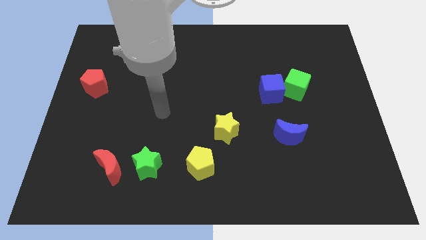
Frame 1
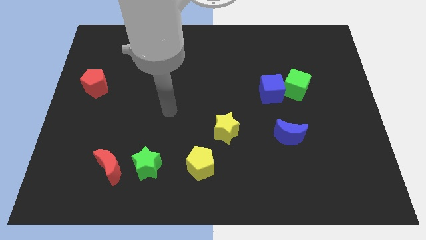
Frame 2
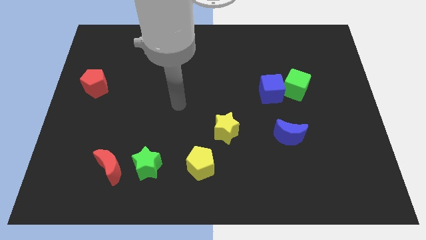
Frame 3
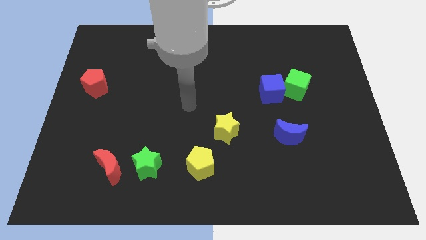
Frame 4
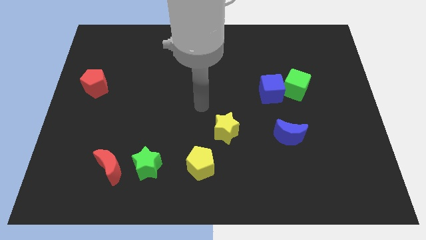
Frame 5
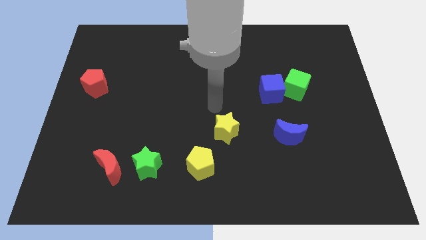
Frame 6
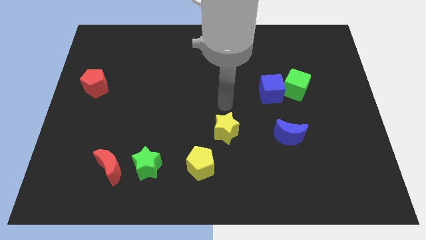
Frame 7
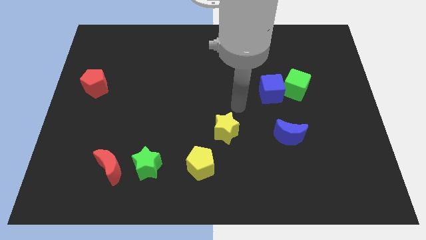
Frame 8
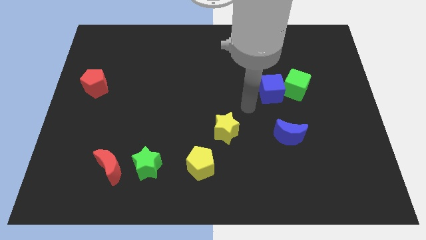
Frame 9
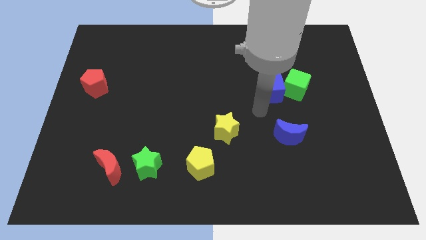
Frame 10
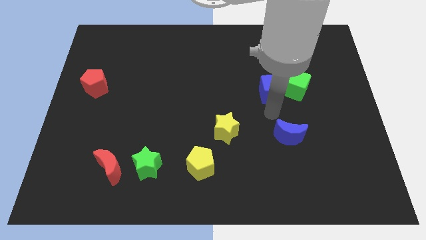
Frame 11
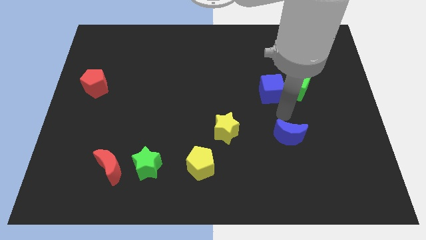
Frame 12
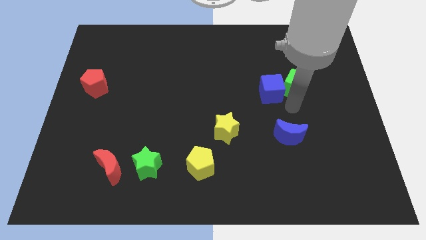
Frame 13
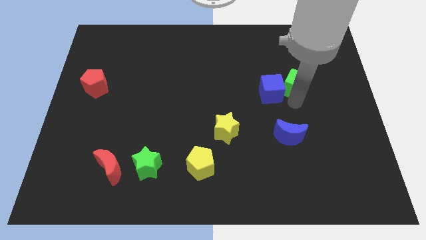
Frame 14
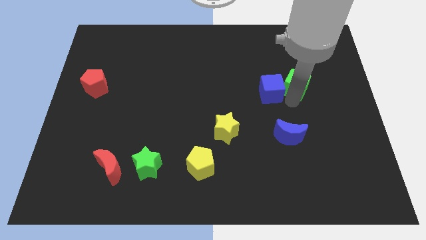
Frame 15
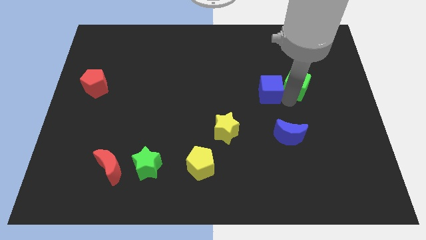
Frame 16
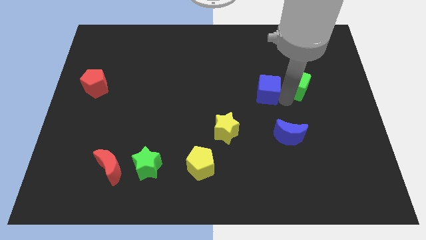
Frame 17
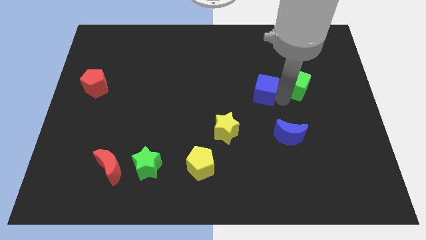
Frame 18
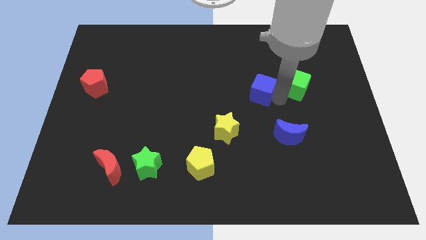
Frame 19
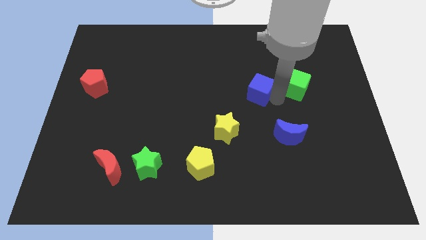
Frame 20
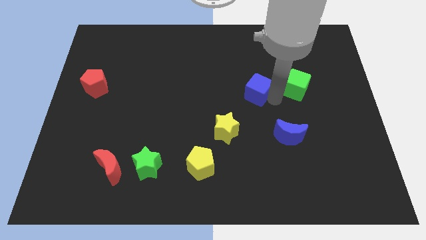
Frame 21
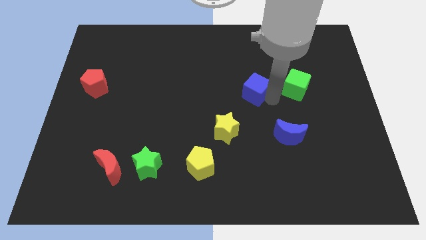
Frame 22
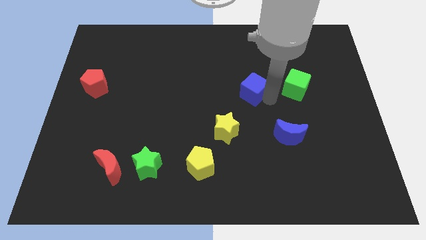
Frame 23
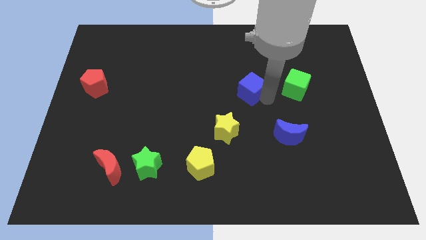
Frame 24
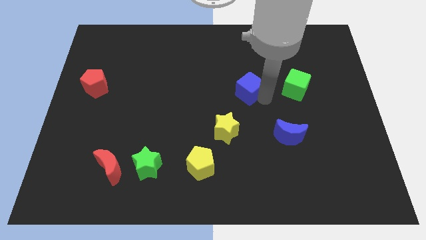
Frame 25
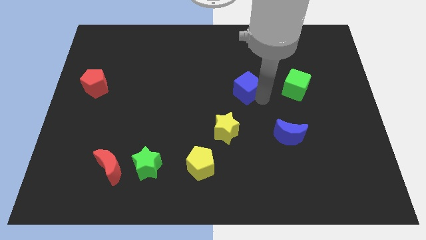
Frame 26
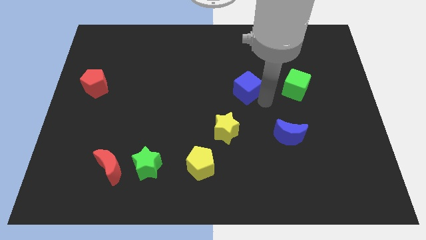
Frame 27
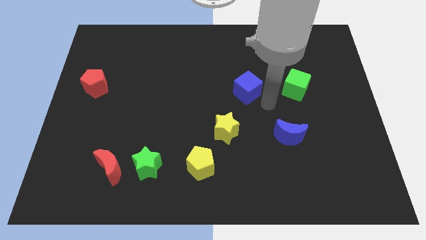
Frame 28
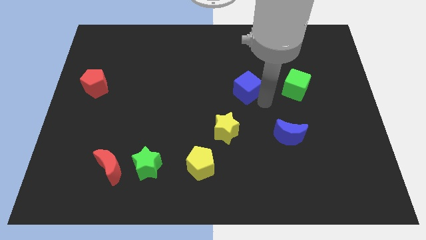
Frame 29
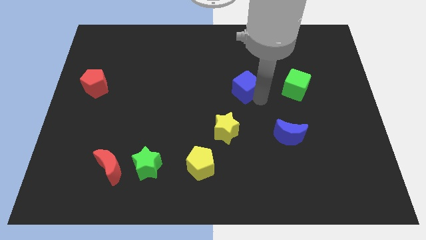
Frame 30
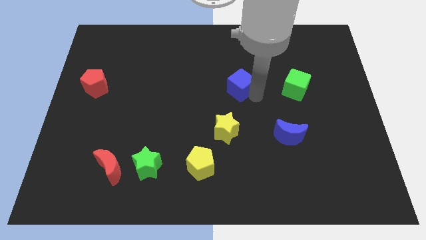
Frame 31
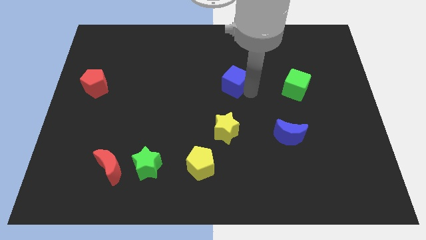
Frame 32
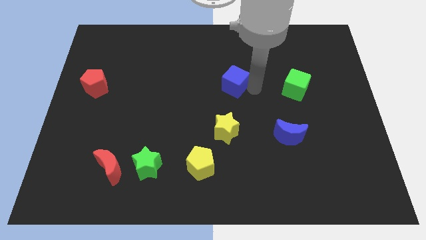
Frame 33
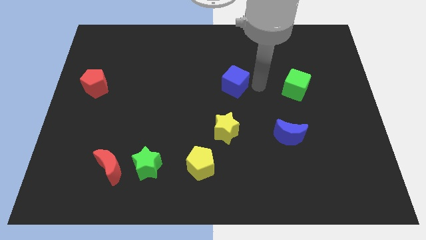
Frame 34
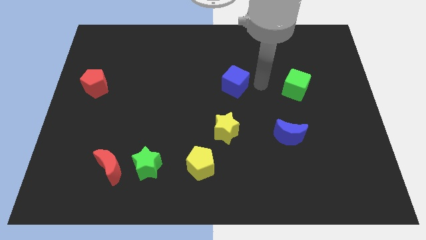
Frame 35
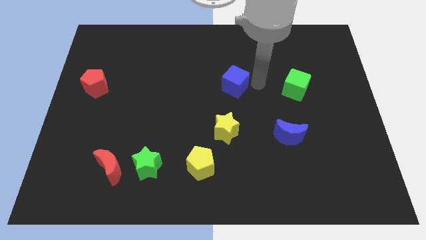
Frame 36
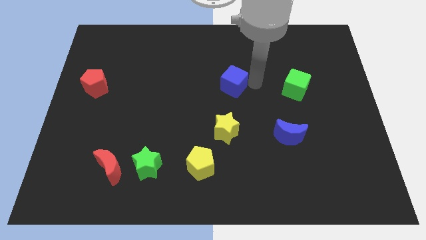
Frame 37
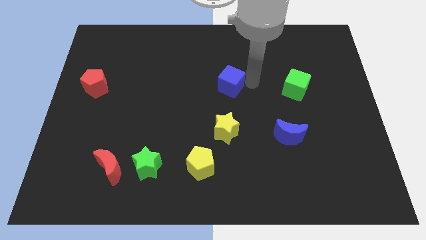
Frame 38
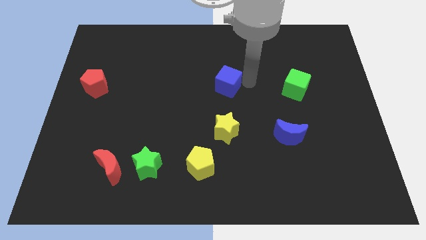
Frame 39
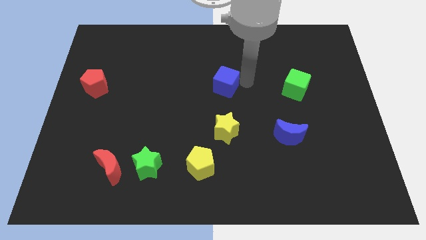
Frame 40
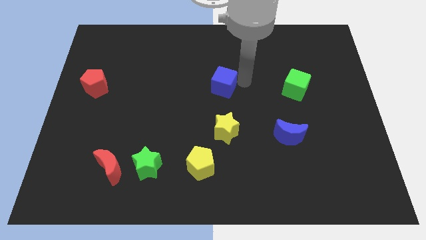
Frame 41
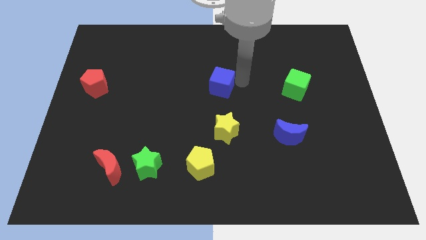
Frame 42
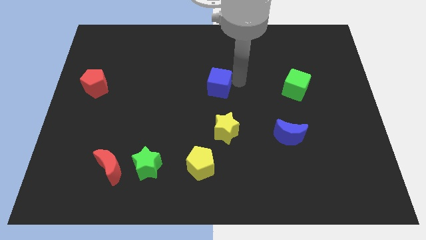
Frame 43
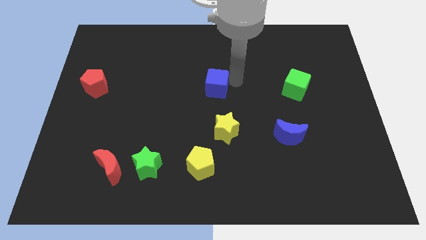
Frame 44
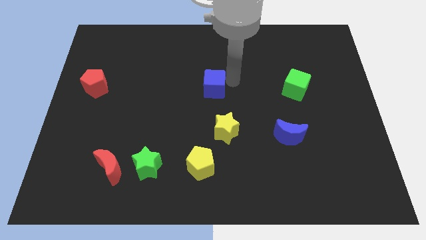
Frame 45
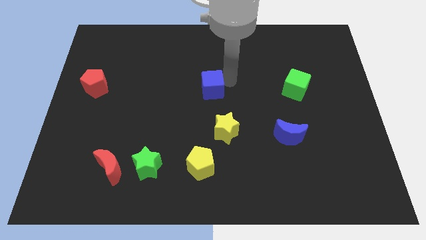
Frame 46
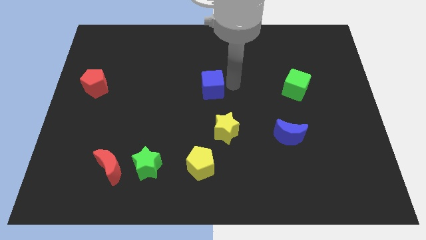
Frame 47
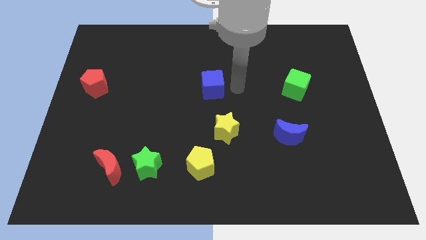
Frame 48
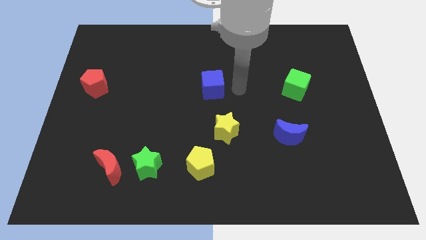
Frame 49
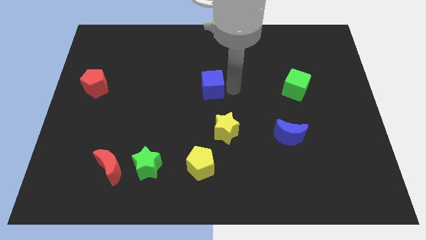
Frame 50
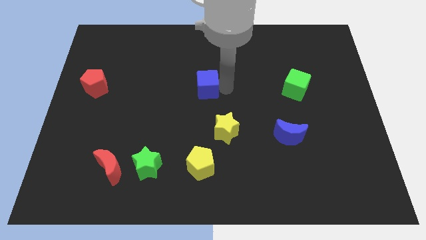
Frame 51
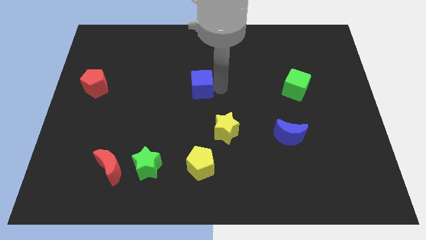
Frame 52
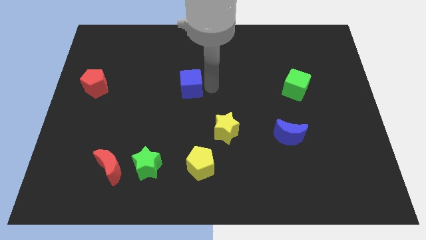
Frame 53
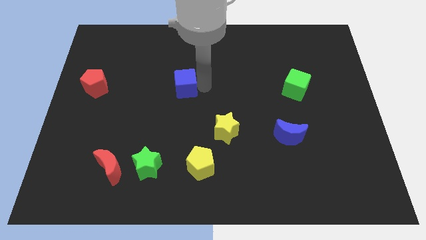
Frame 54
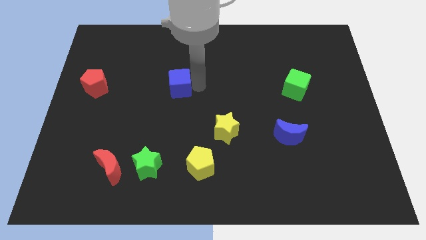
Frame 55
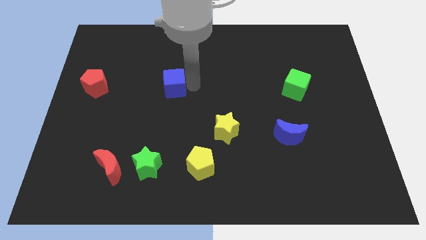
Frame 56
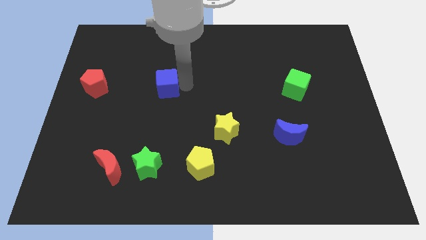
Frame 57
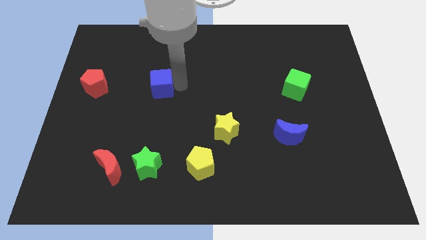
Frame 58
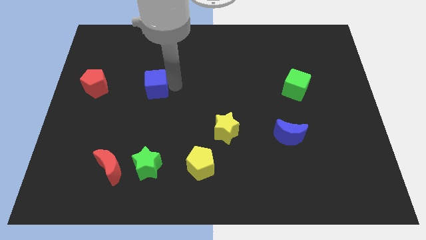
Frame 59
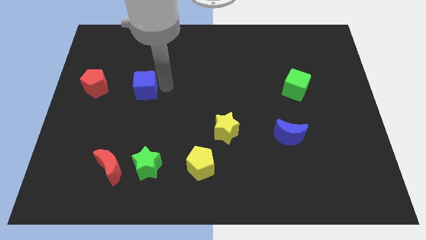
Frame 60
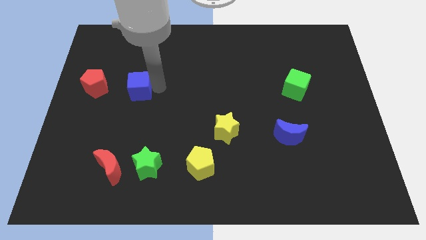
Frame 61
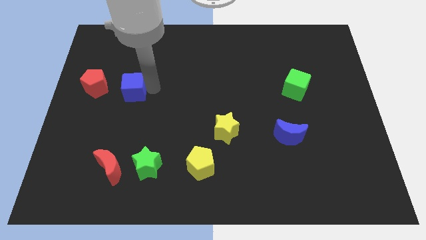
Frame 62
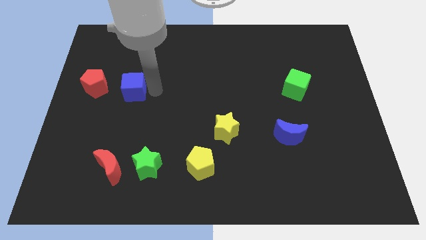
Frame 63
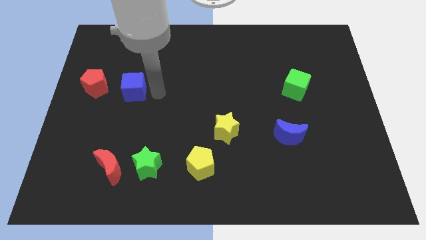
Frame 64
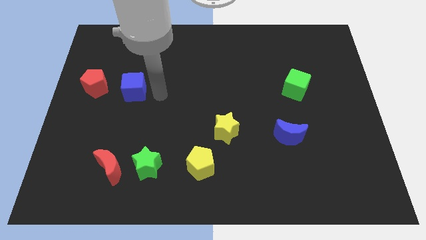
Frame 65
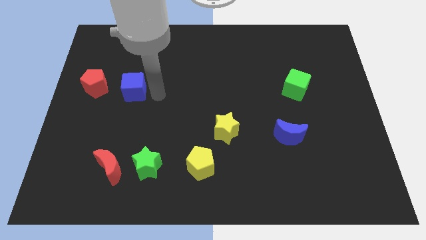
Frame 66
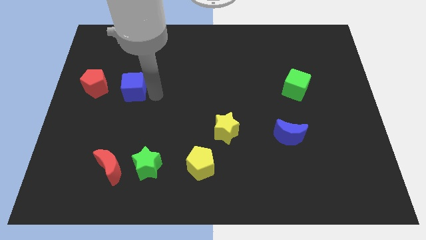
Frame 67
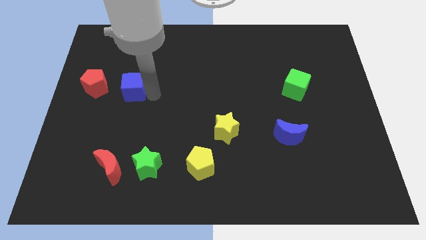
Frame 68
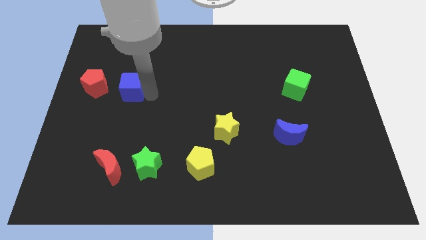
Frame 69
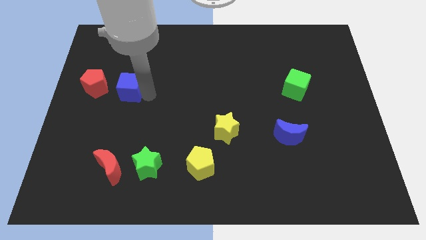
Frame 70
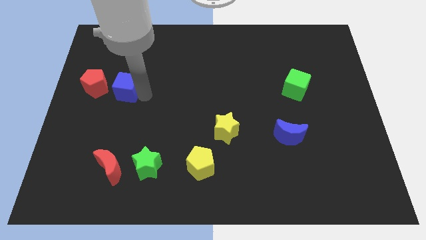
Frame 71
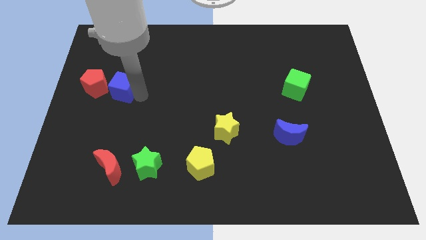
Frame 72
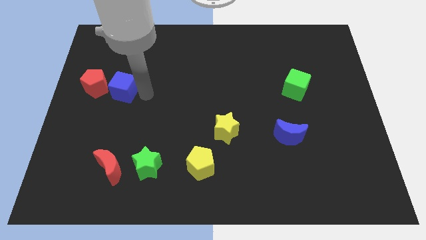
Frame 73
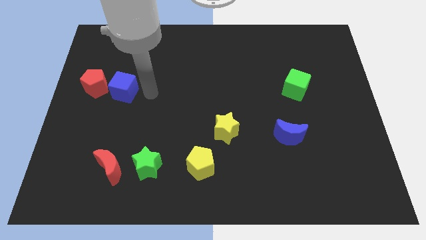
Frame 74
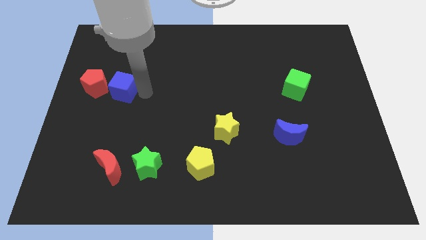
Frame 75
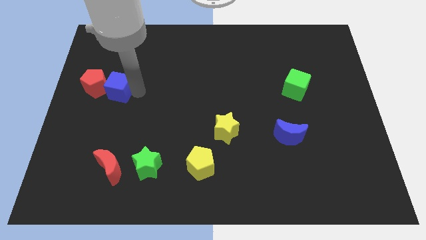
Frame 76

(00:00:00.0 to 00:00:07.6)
push the blue cube close to the red pentagon
